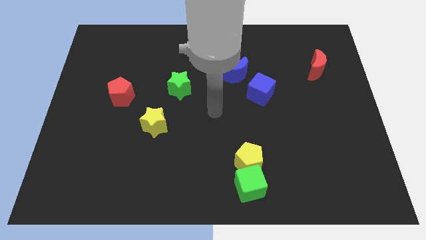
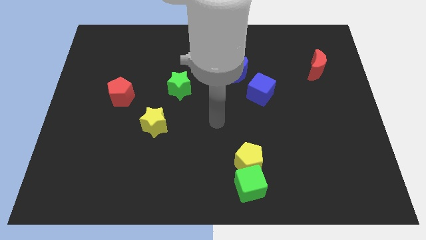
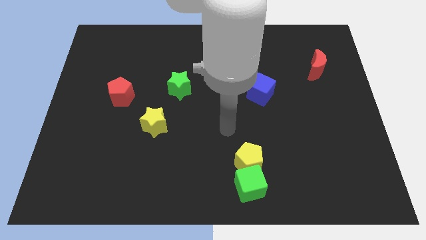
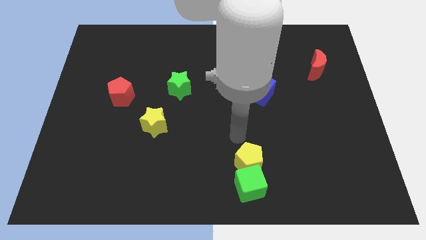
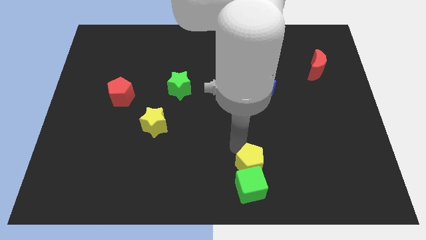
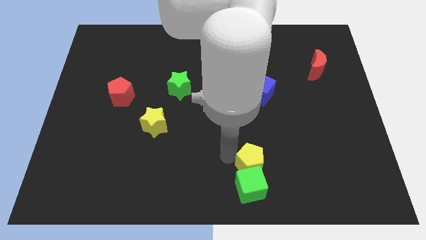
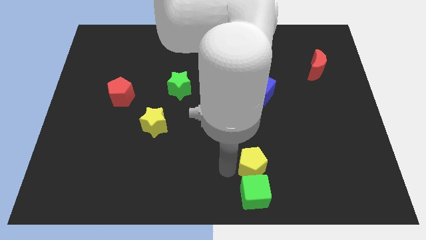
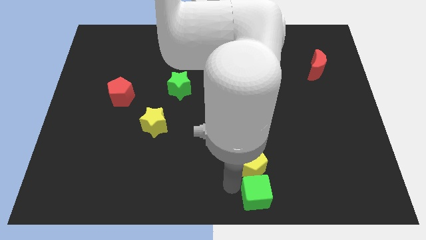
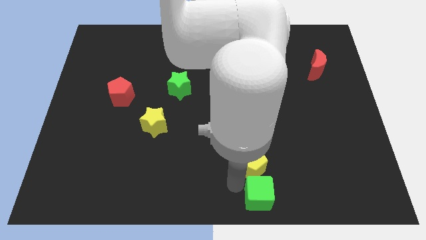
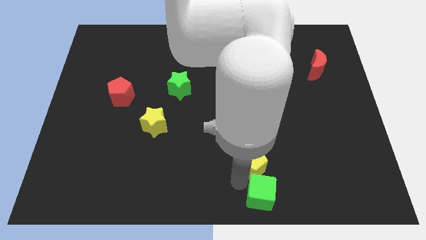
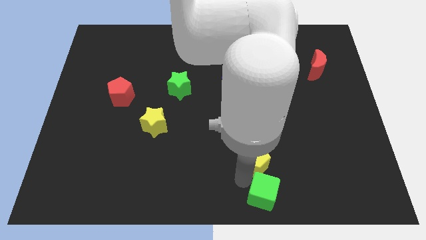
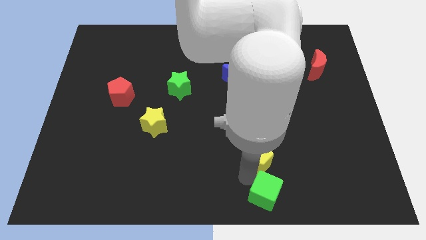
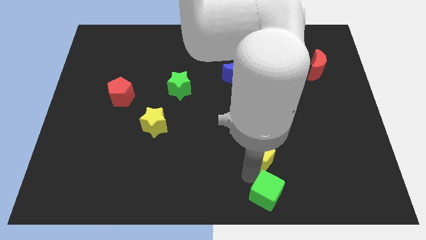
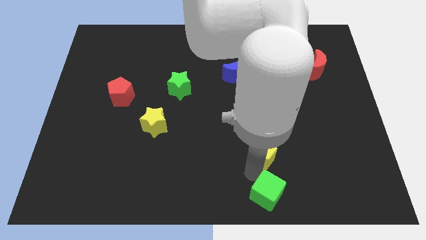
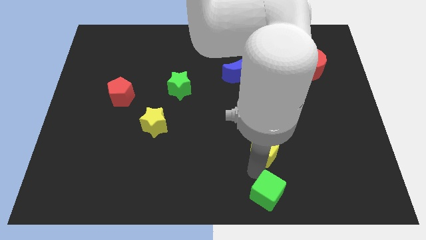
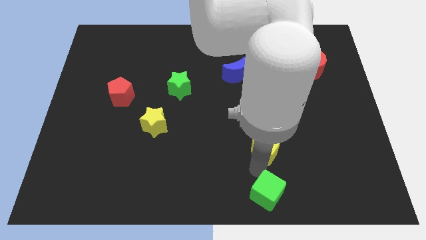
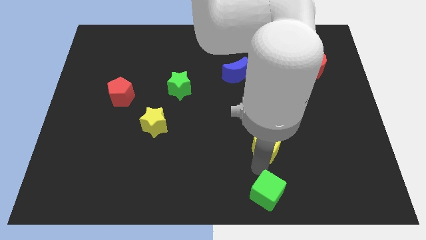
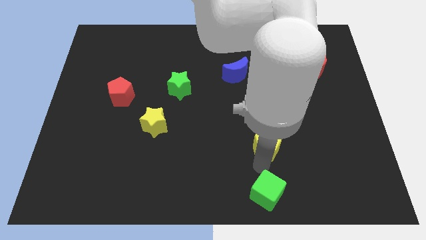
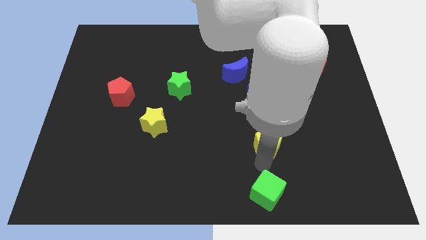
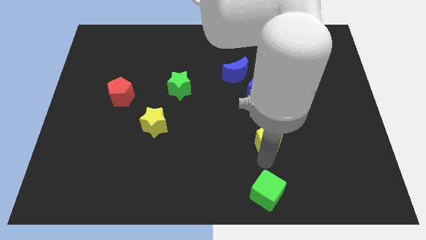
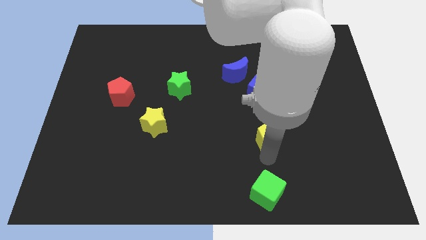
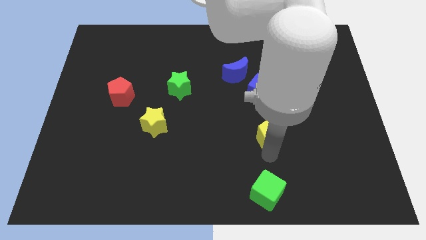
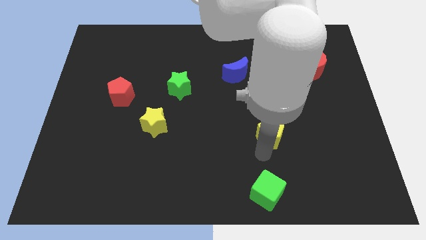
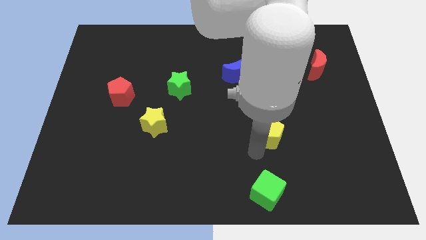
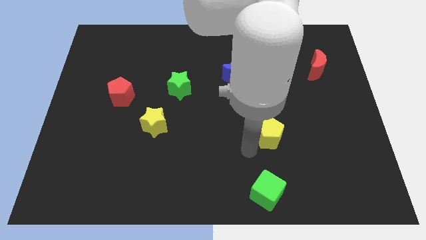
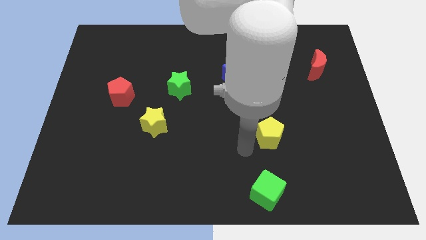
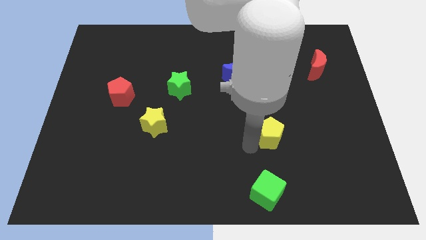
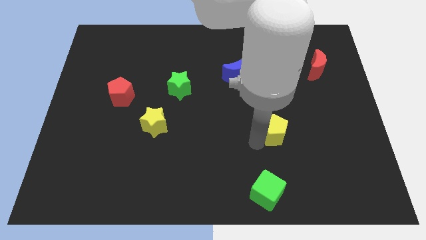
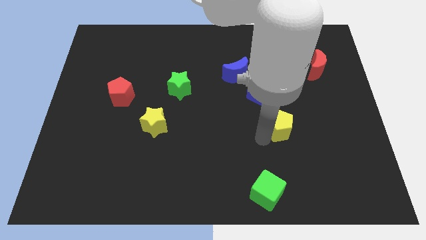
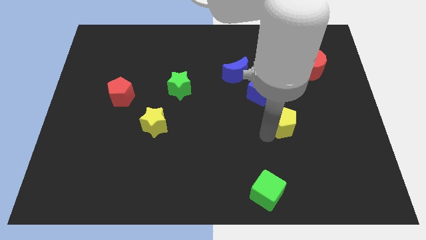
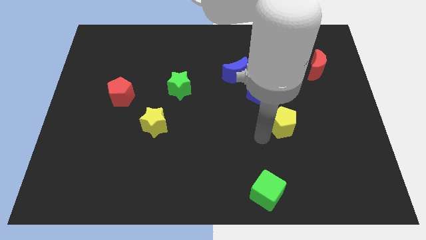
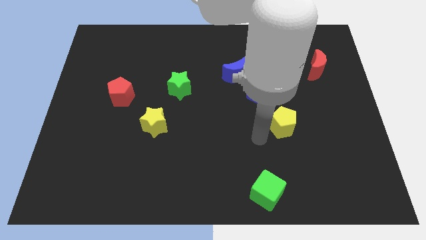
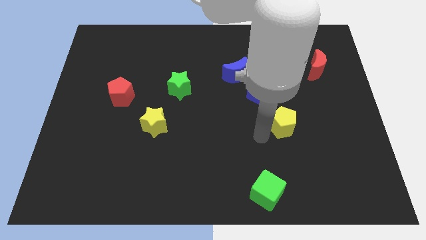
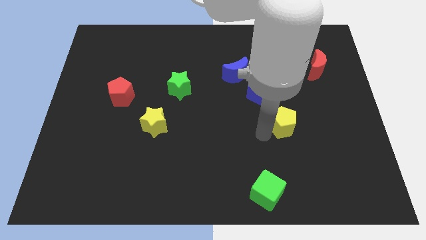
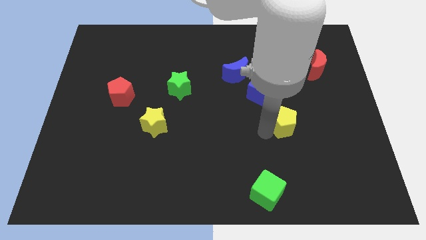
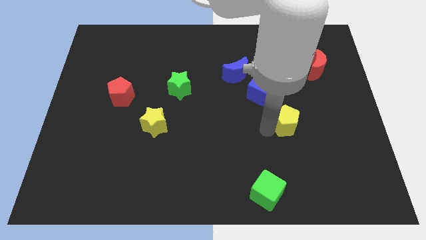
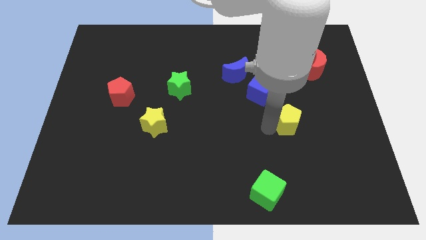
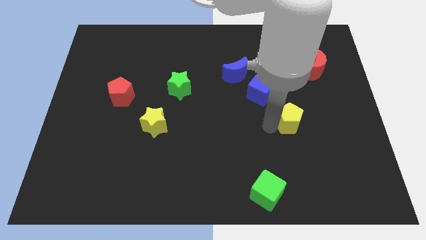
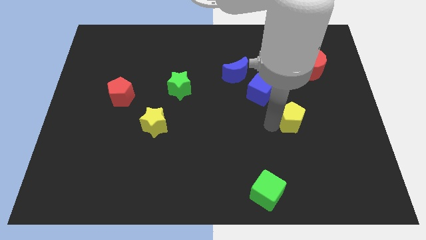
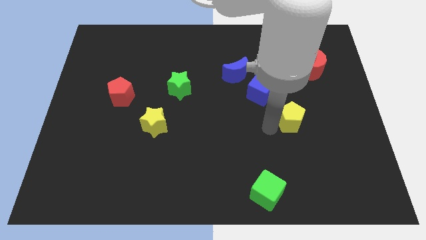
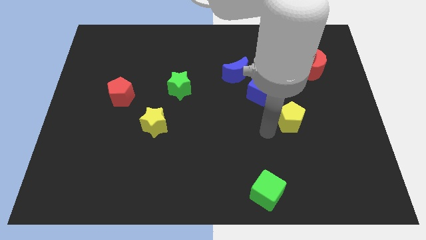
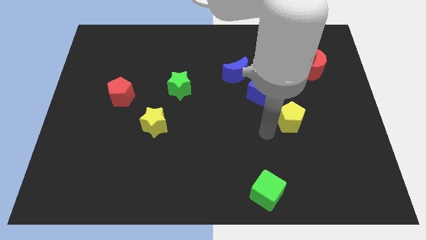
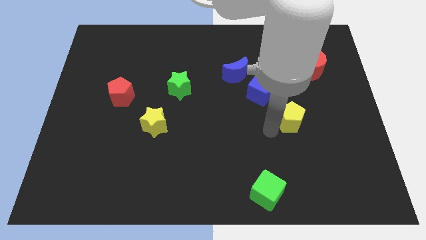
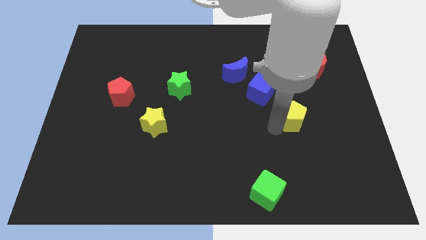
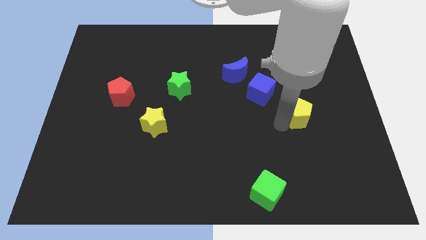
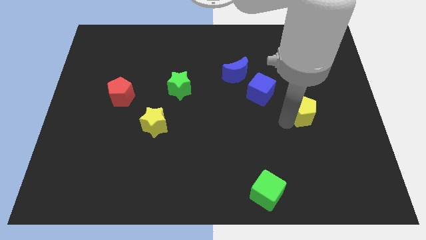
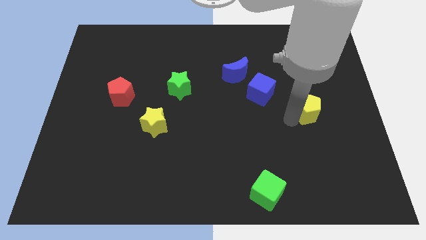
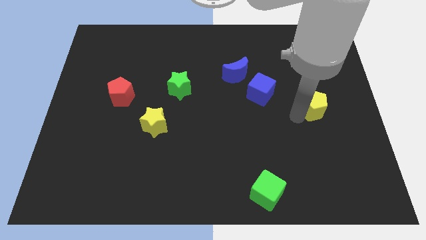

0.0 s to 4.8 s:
move the yellow pentagon below the red moon

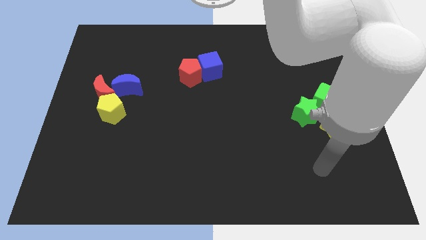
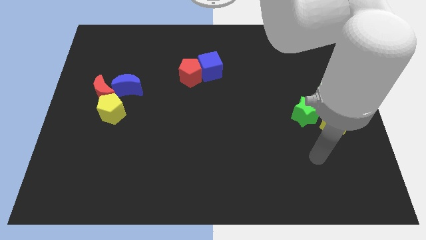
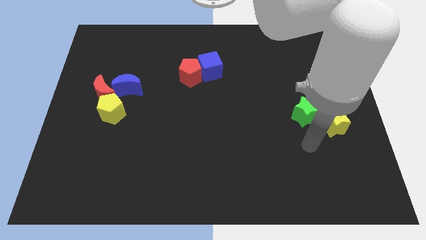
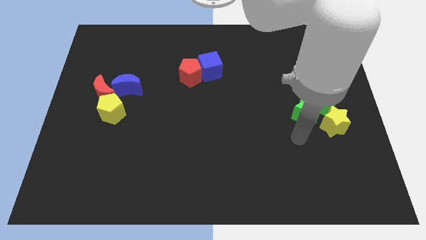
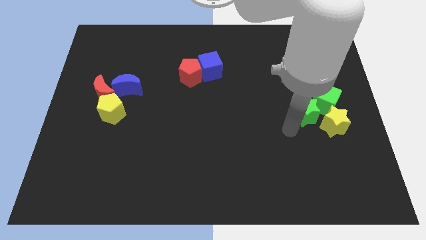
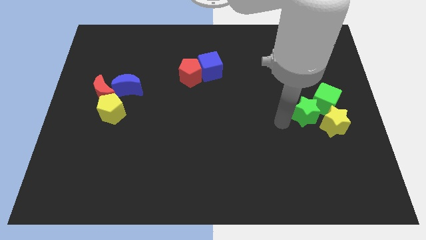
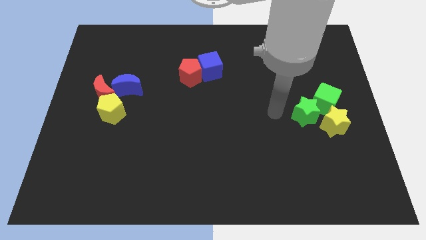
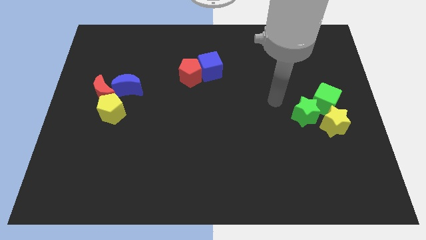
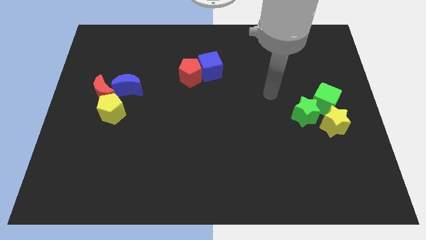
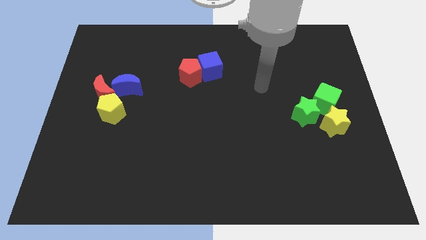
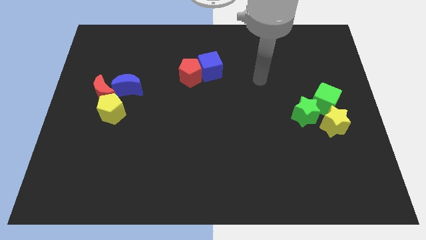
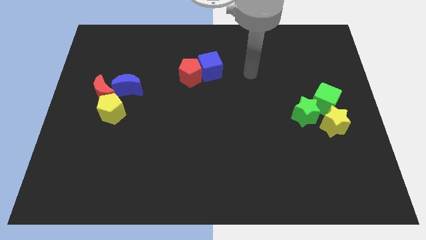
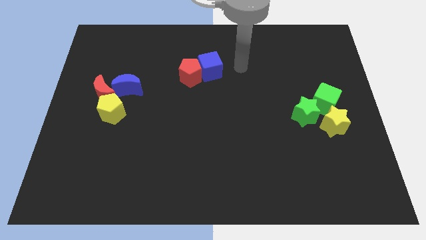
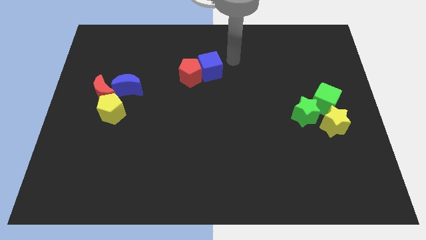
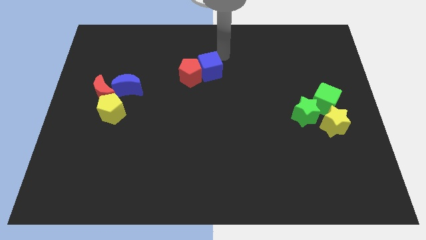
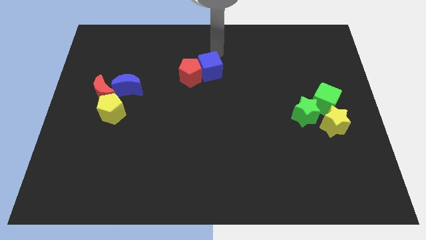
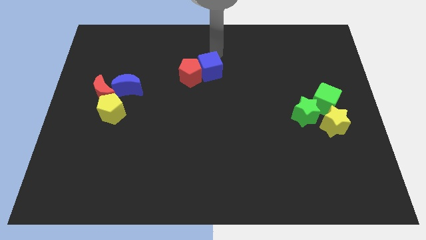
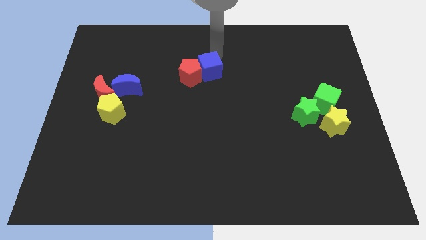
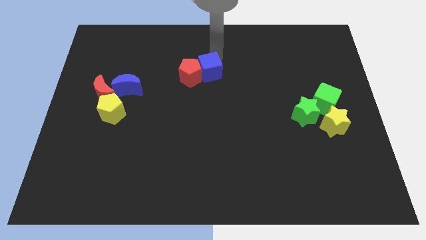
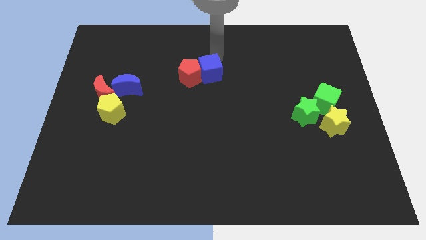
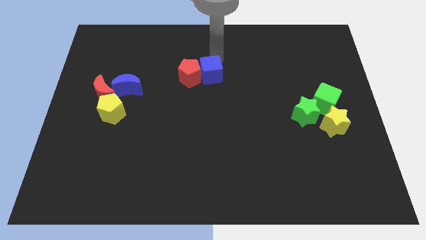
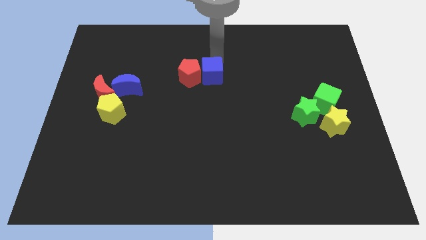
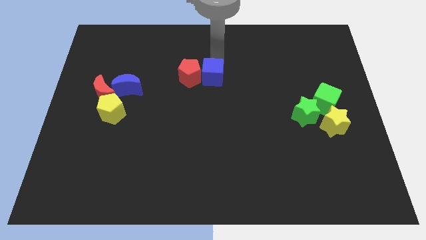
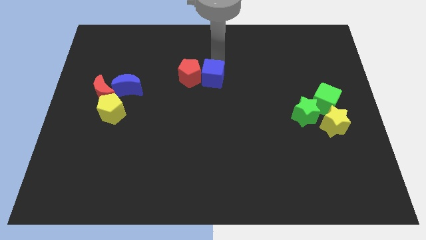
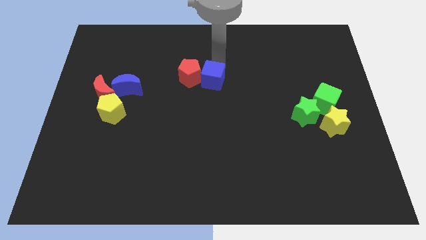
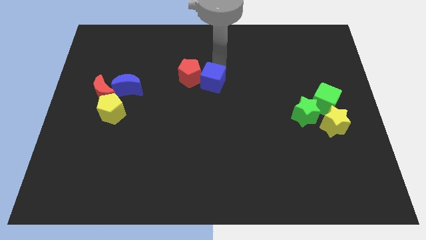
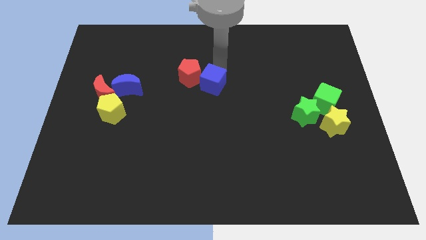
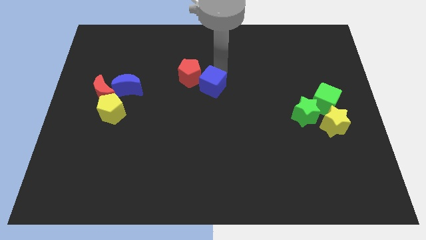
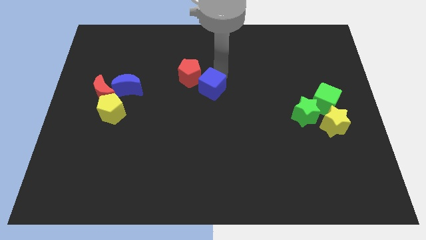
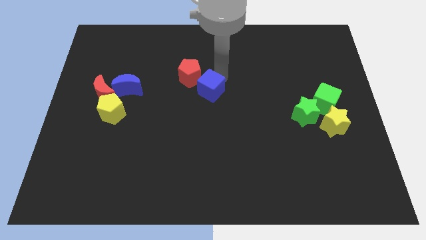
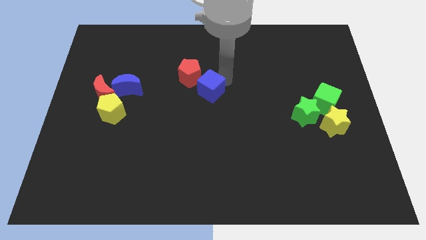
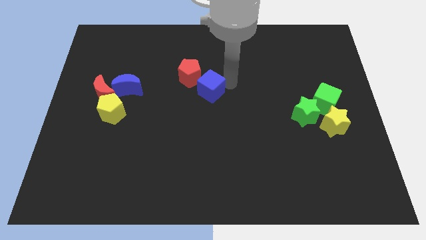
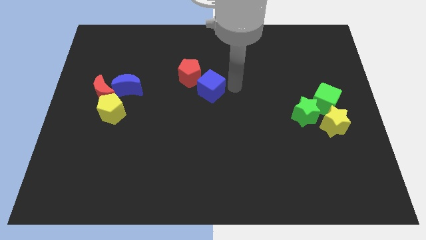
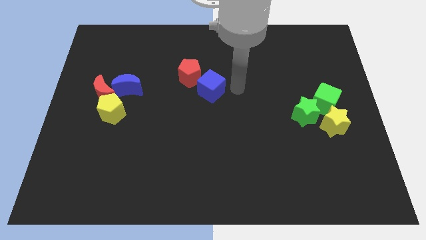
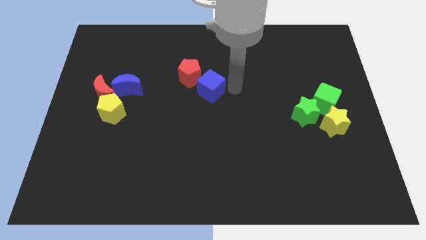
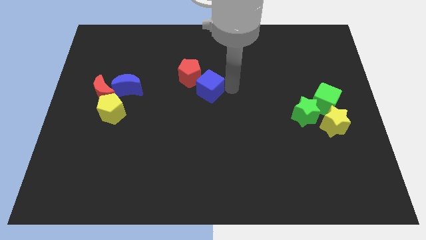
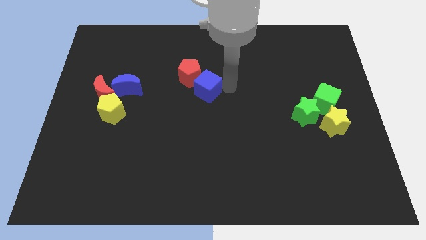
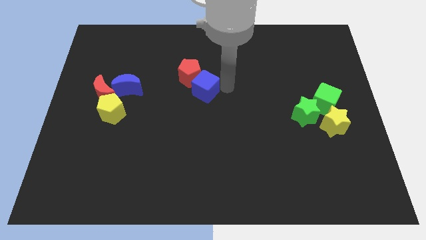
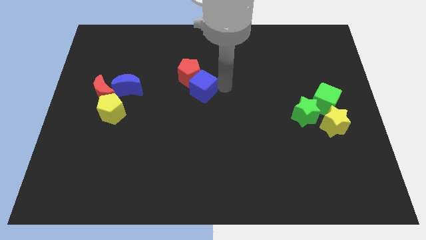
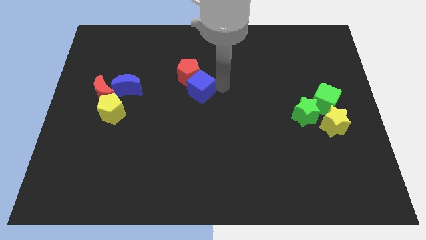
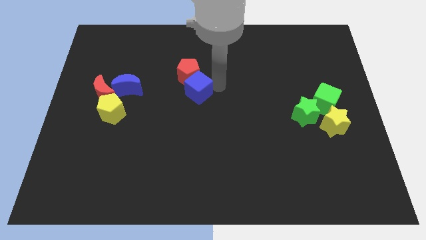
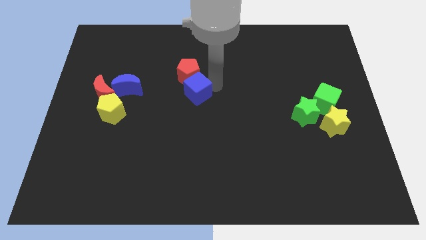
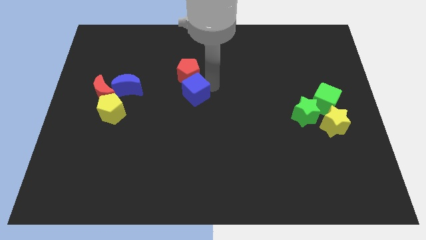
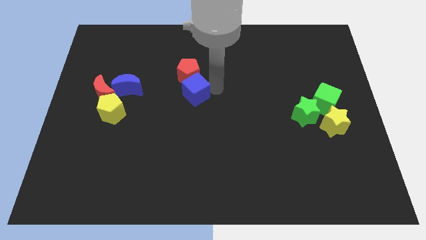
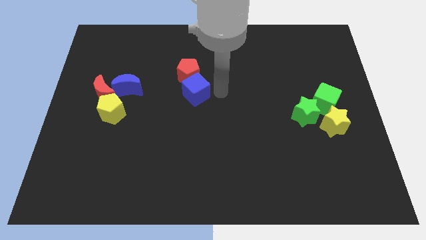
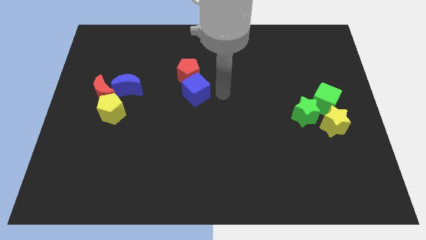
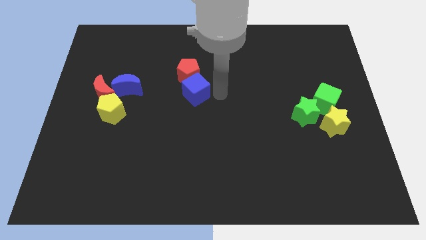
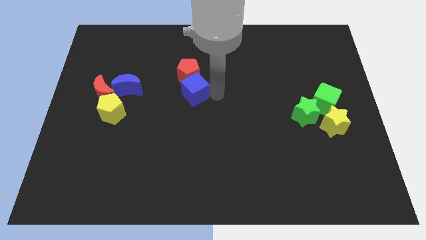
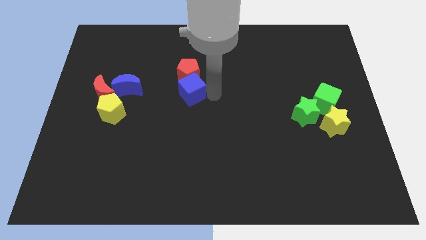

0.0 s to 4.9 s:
slide the blue cube to the bottom left side of the red pentagon
